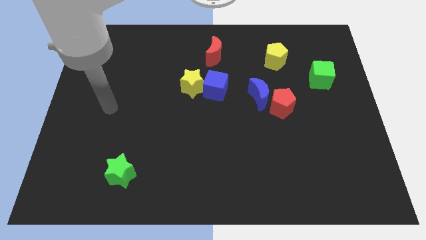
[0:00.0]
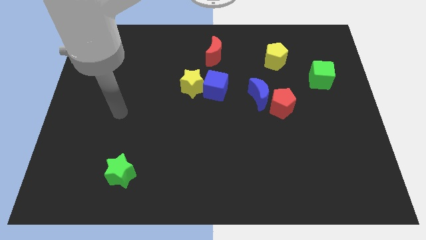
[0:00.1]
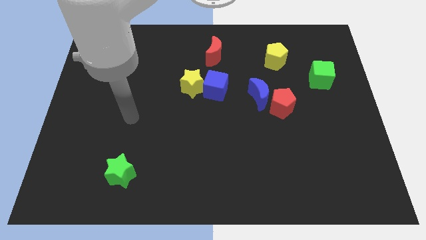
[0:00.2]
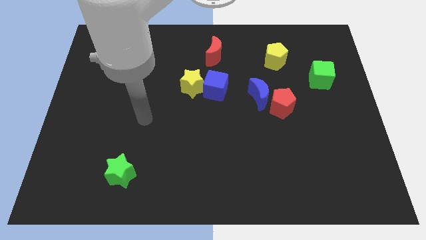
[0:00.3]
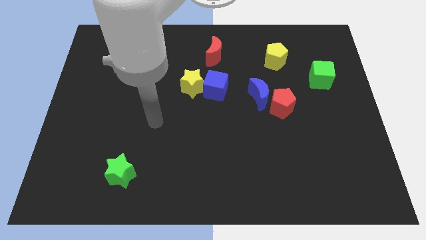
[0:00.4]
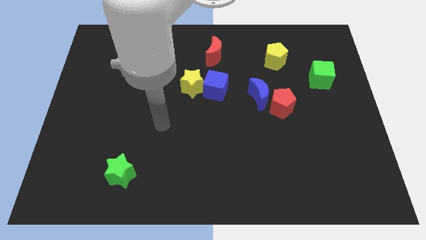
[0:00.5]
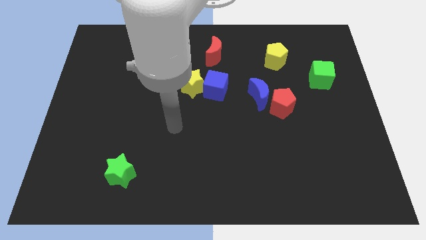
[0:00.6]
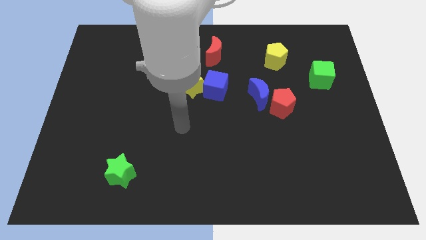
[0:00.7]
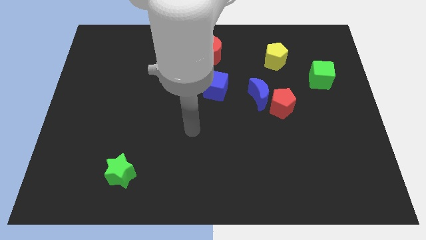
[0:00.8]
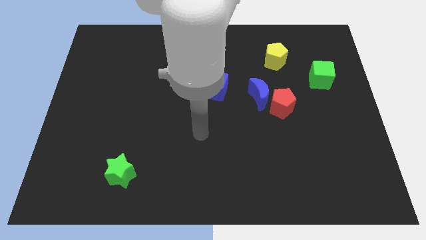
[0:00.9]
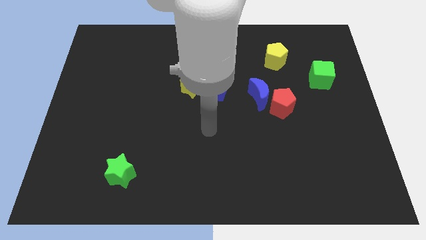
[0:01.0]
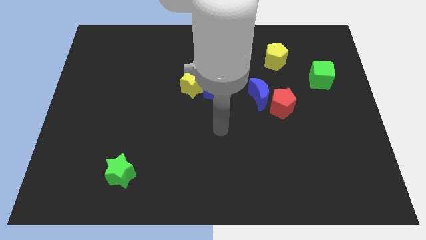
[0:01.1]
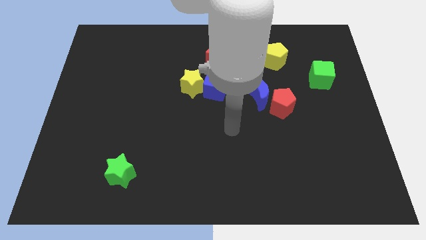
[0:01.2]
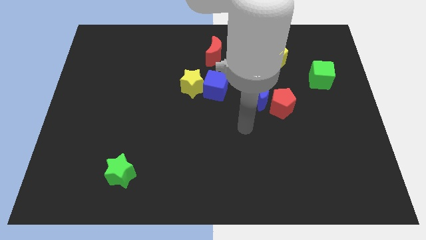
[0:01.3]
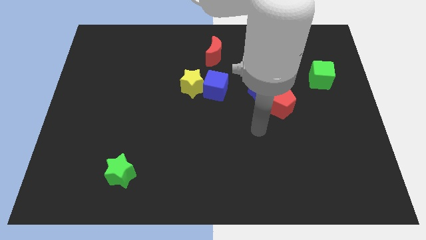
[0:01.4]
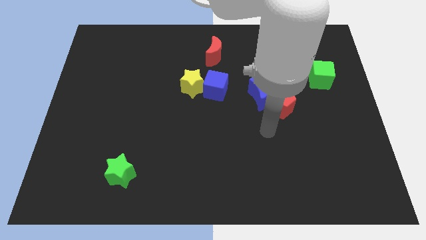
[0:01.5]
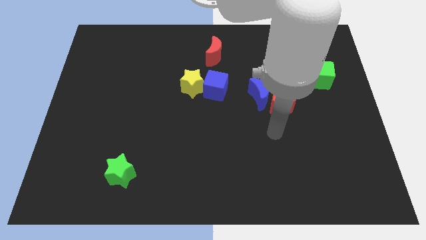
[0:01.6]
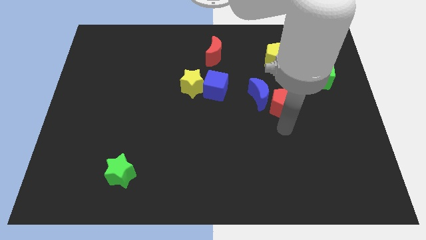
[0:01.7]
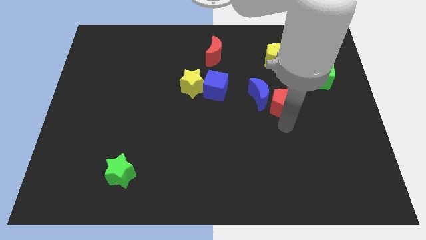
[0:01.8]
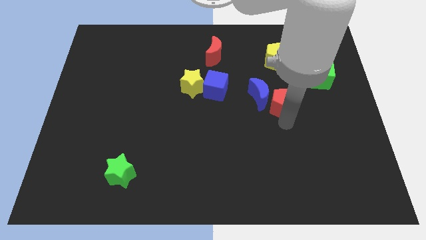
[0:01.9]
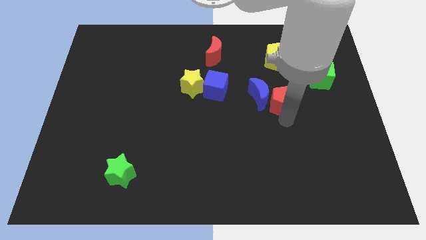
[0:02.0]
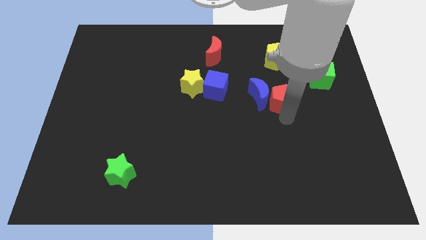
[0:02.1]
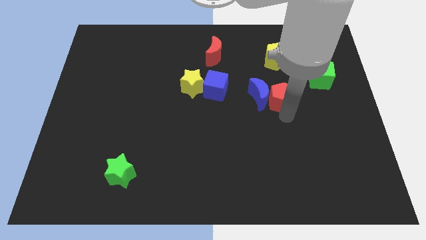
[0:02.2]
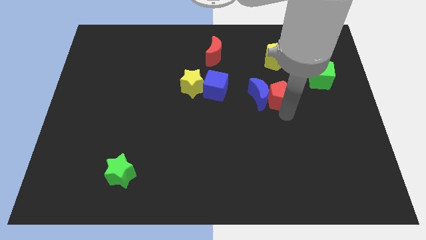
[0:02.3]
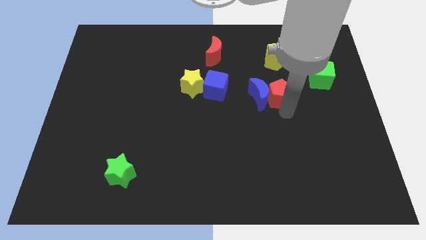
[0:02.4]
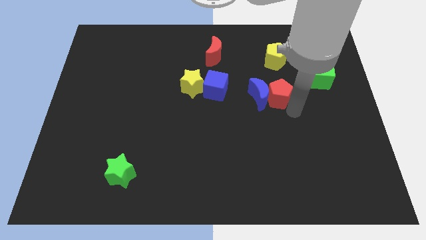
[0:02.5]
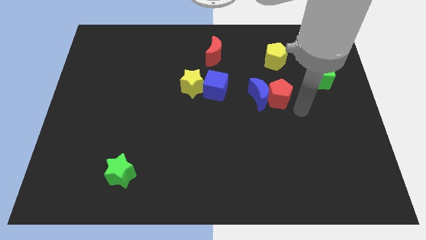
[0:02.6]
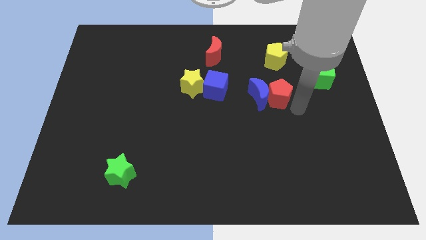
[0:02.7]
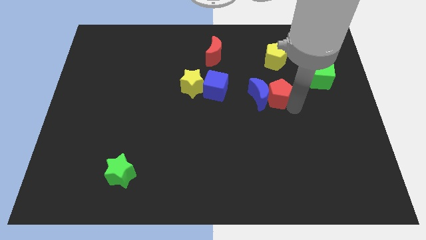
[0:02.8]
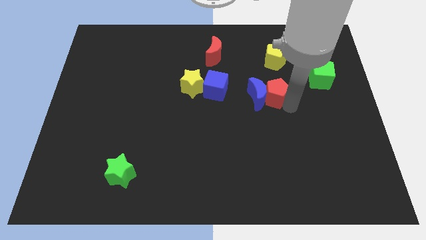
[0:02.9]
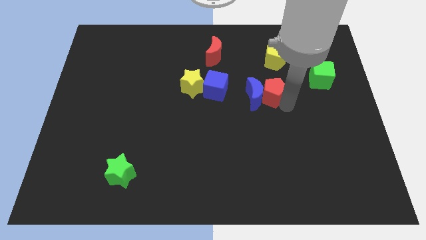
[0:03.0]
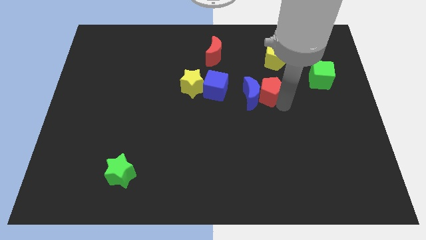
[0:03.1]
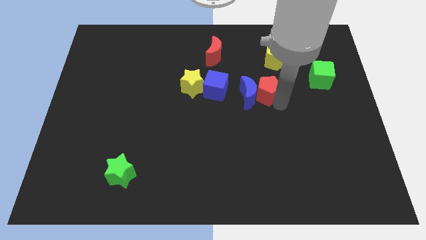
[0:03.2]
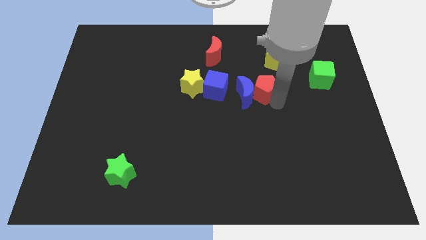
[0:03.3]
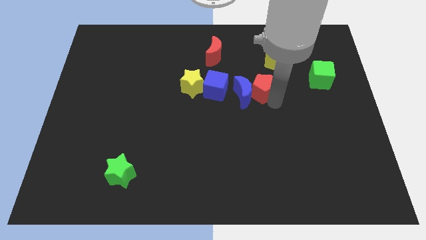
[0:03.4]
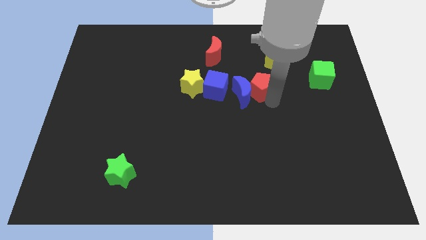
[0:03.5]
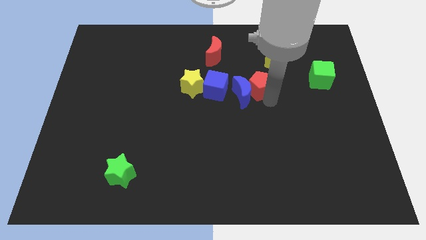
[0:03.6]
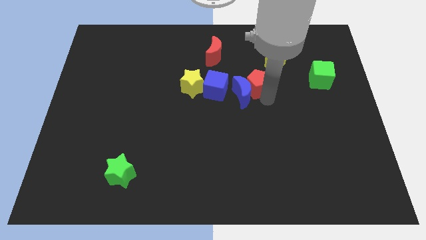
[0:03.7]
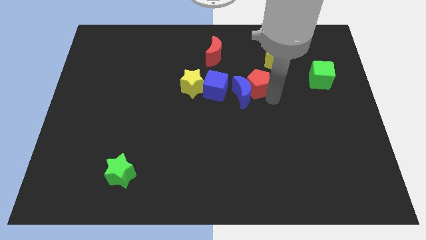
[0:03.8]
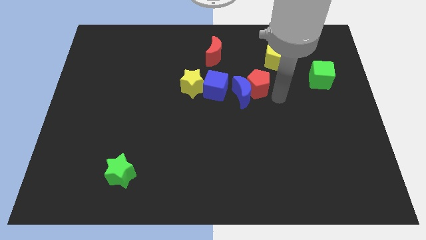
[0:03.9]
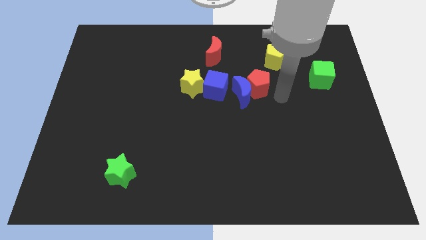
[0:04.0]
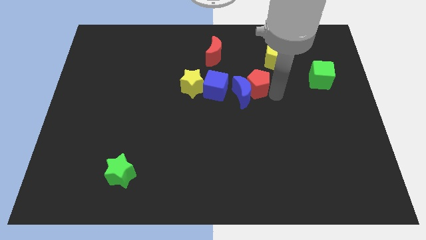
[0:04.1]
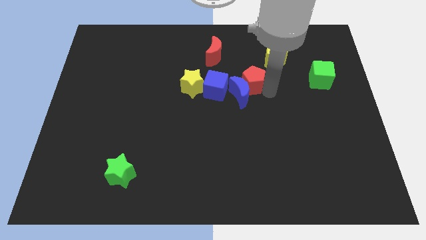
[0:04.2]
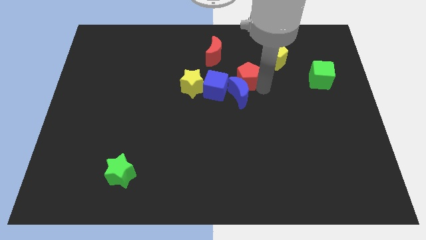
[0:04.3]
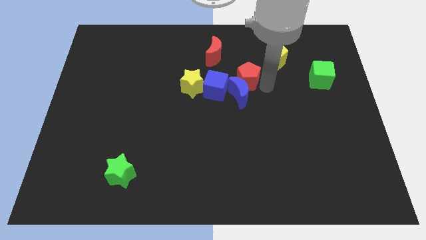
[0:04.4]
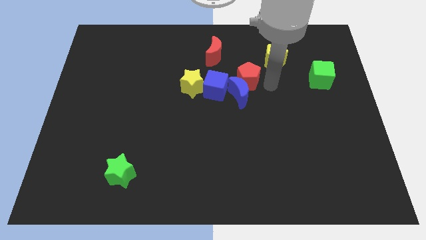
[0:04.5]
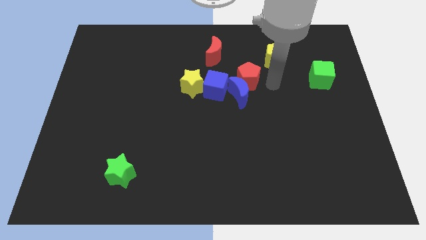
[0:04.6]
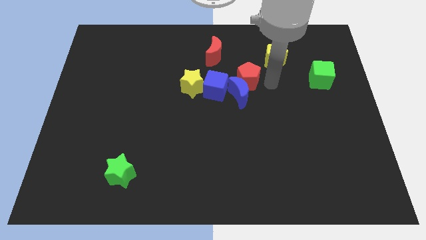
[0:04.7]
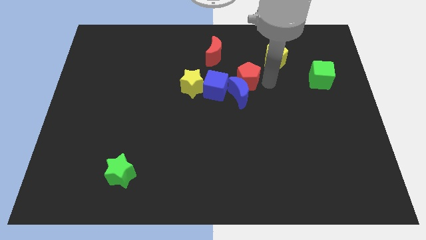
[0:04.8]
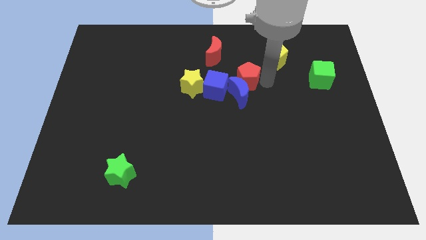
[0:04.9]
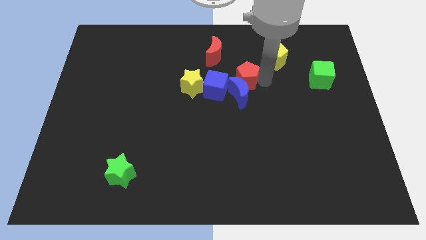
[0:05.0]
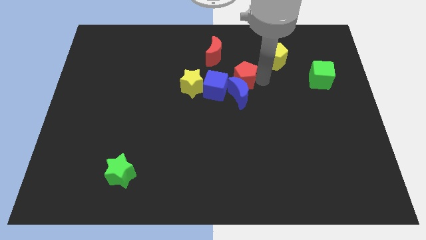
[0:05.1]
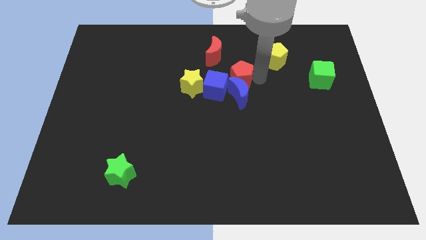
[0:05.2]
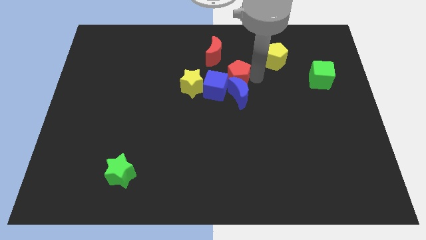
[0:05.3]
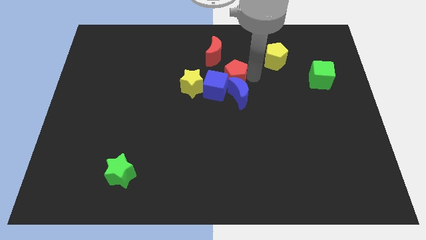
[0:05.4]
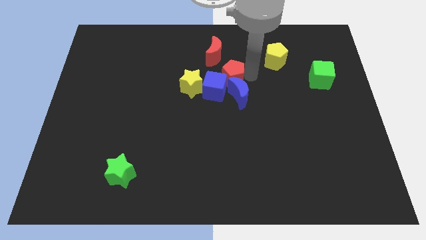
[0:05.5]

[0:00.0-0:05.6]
move the red pentagon to the top right side of the yellow star
